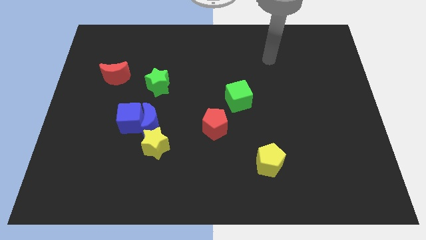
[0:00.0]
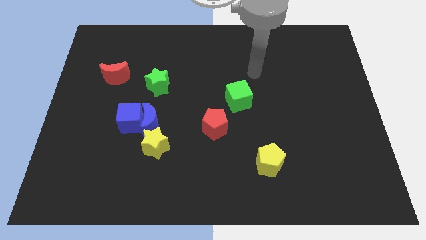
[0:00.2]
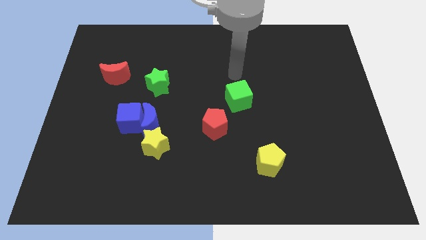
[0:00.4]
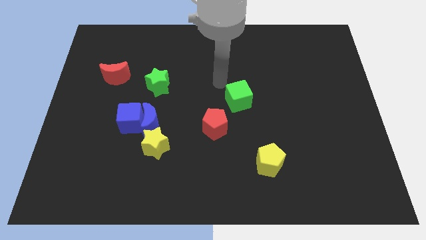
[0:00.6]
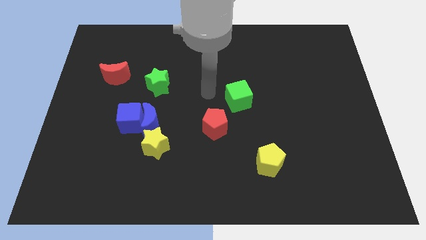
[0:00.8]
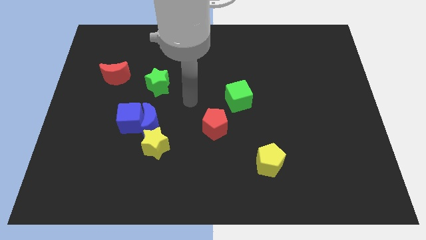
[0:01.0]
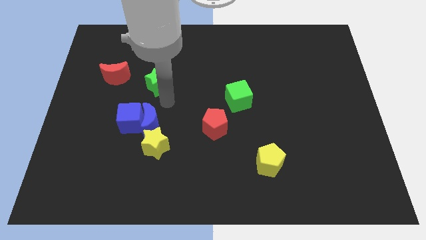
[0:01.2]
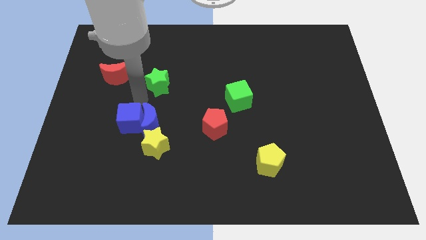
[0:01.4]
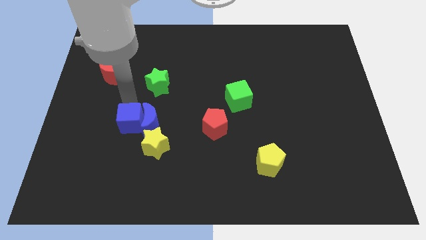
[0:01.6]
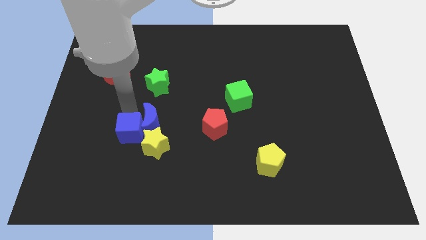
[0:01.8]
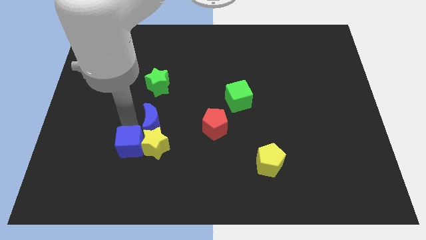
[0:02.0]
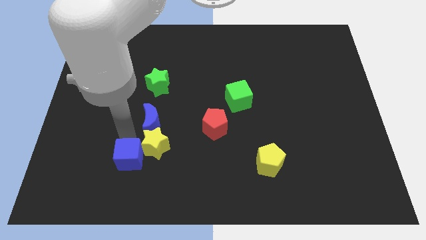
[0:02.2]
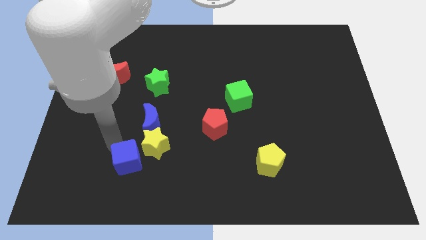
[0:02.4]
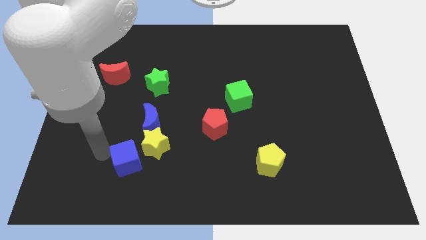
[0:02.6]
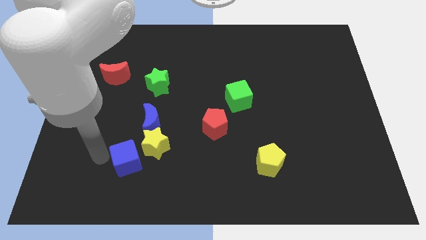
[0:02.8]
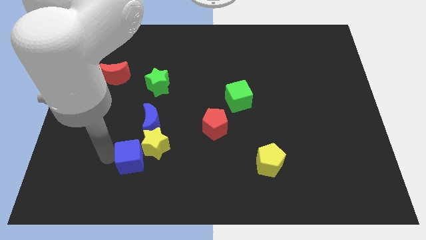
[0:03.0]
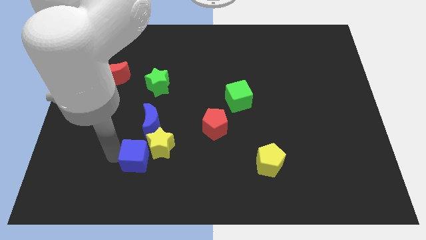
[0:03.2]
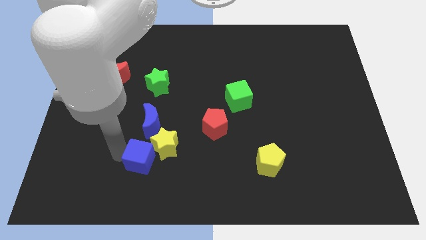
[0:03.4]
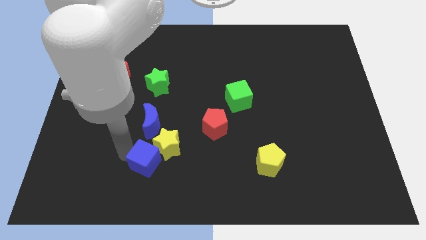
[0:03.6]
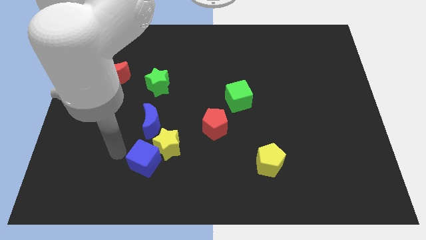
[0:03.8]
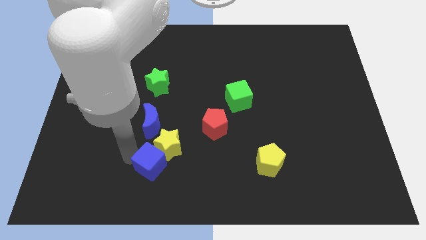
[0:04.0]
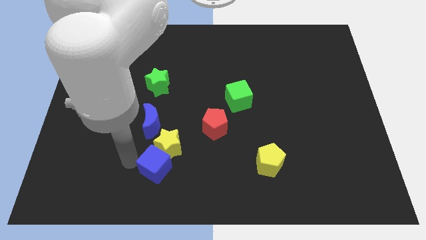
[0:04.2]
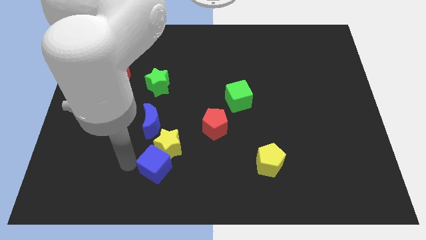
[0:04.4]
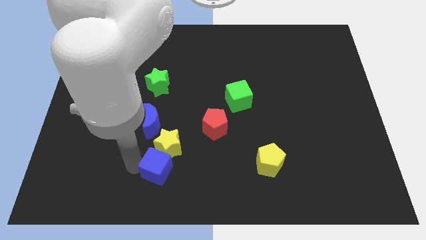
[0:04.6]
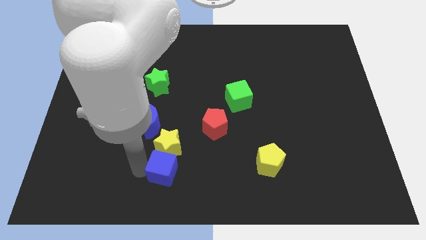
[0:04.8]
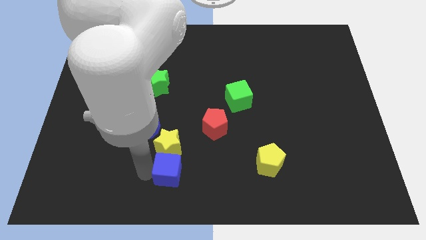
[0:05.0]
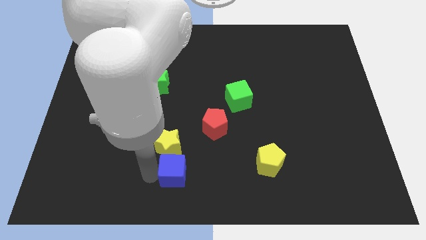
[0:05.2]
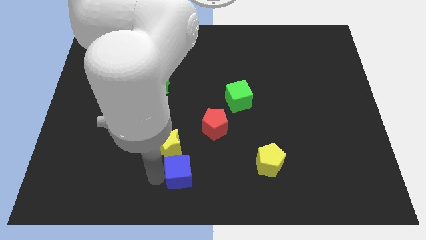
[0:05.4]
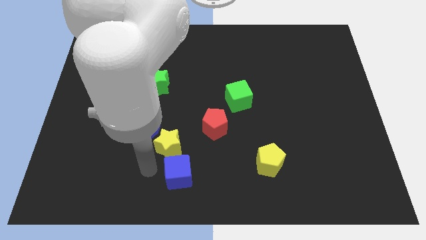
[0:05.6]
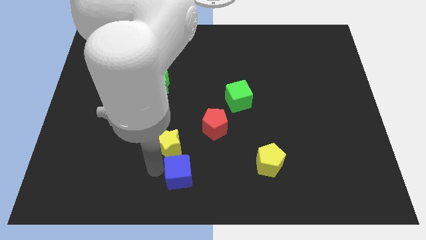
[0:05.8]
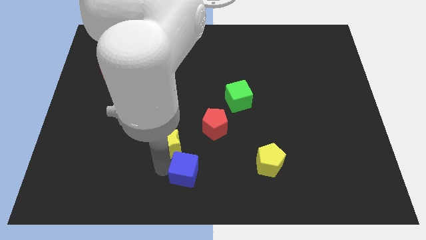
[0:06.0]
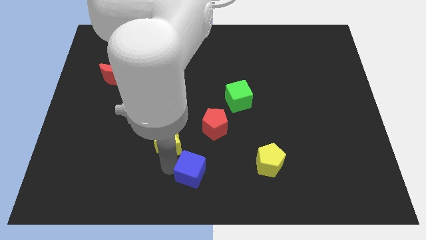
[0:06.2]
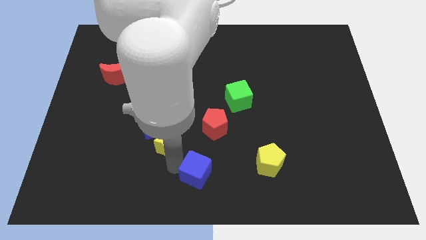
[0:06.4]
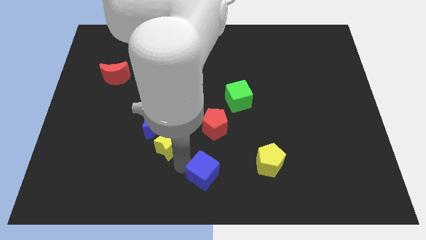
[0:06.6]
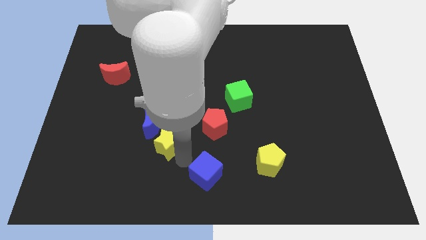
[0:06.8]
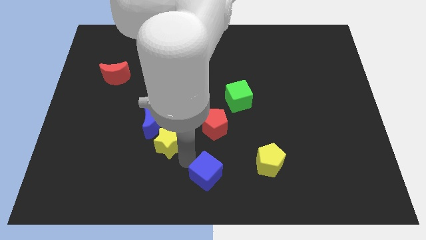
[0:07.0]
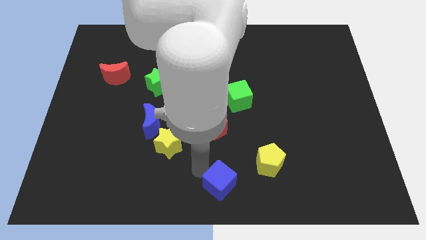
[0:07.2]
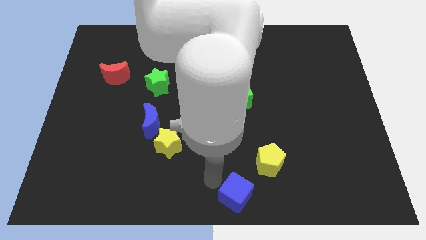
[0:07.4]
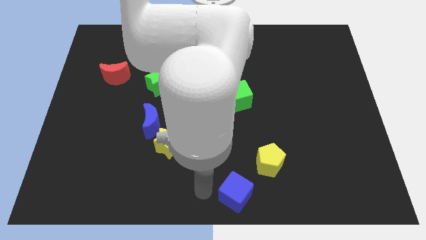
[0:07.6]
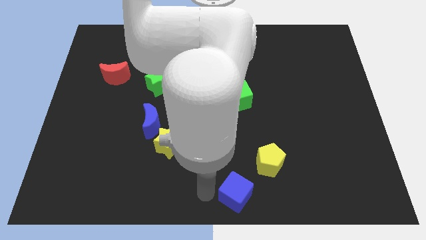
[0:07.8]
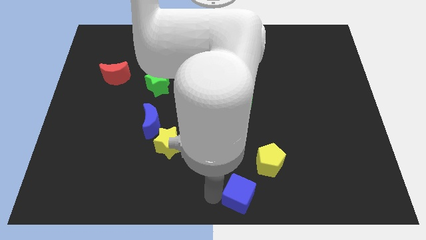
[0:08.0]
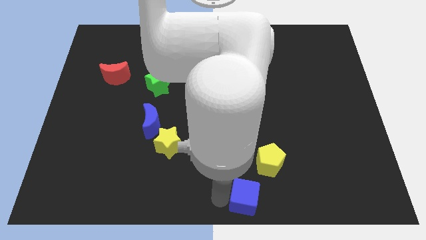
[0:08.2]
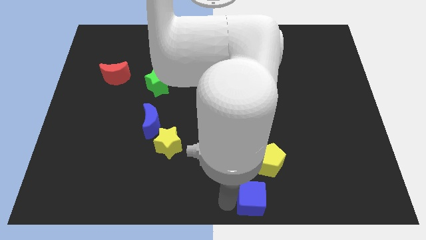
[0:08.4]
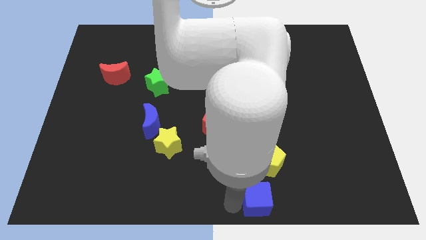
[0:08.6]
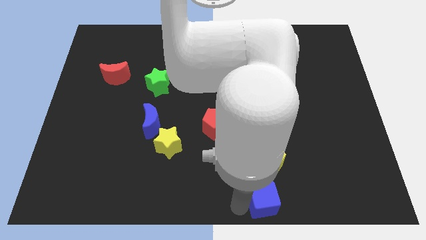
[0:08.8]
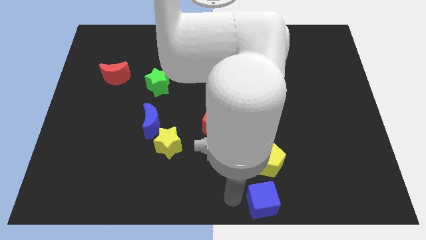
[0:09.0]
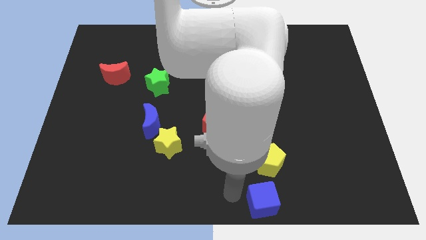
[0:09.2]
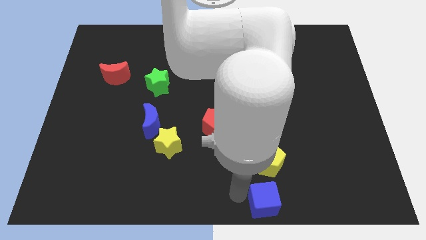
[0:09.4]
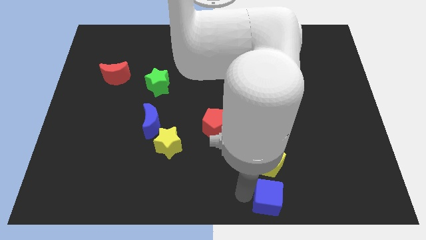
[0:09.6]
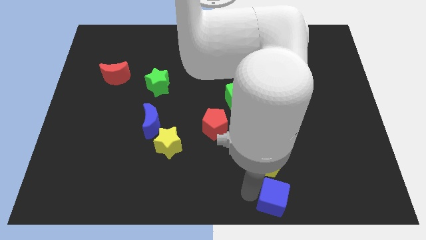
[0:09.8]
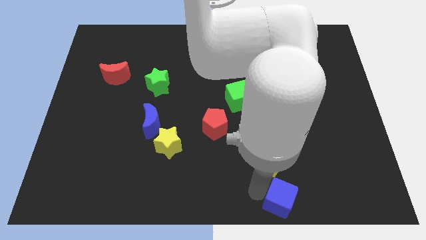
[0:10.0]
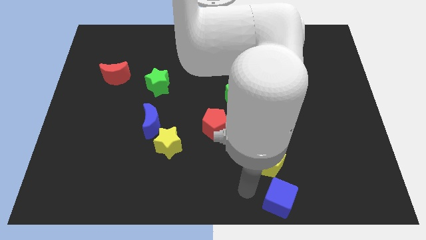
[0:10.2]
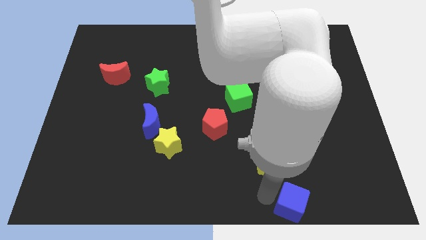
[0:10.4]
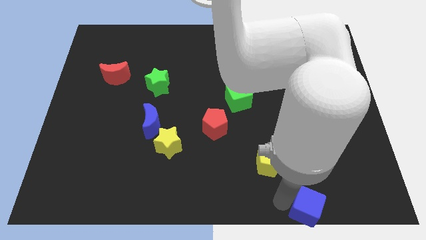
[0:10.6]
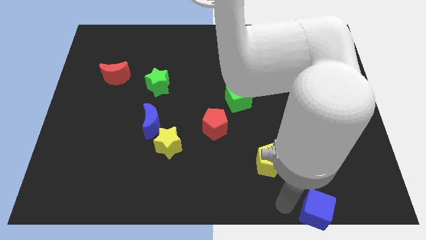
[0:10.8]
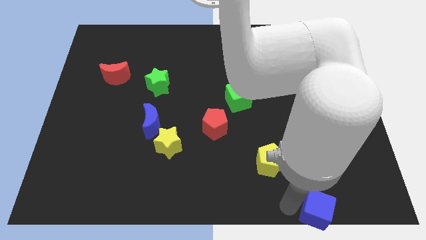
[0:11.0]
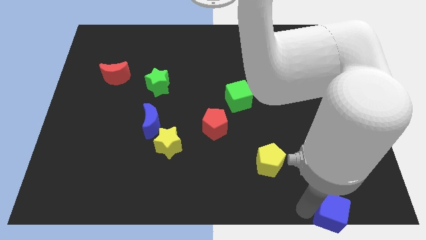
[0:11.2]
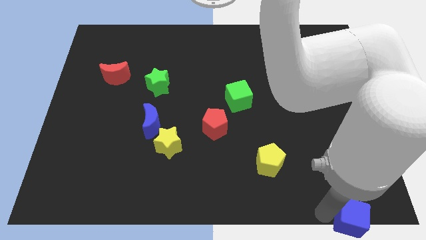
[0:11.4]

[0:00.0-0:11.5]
move the blue cube to the bottom right of the board

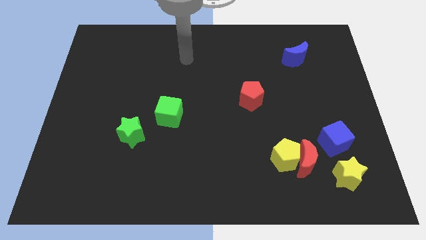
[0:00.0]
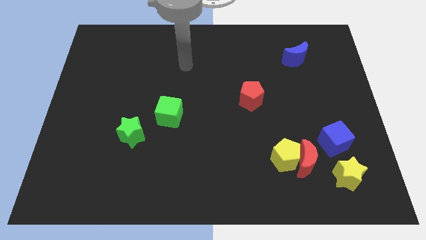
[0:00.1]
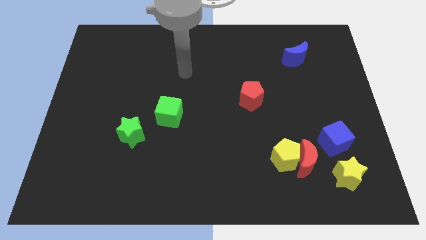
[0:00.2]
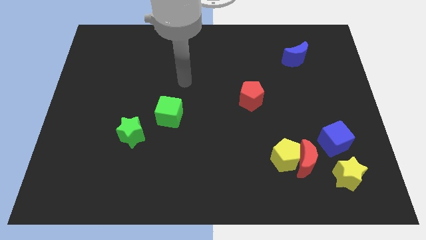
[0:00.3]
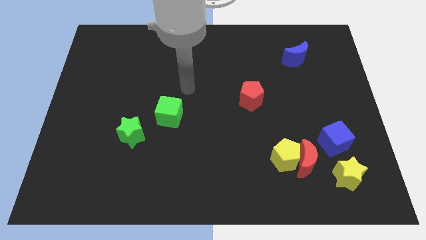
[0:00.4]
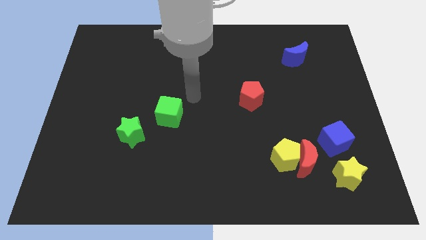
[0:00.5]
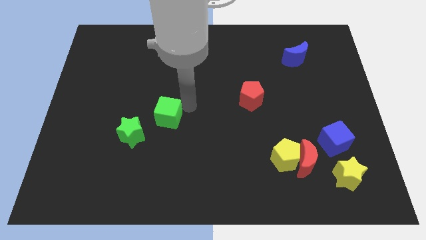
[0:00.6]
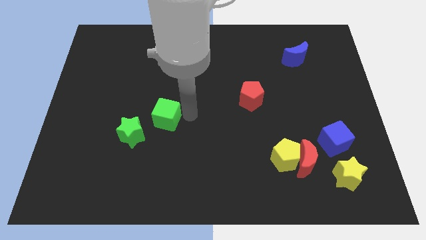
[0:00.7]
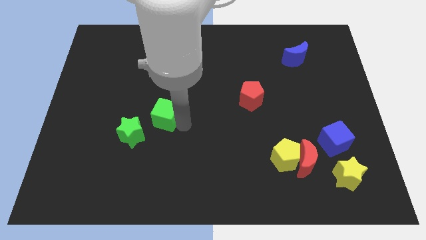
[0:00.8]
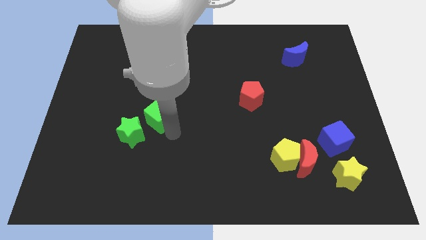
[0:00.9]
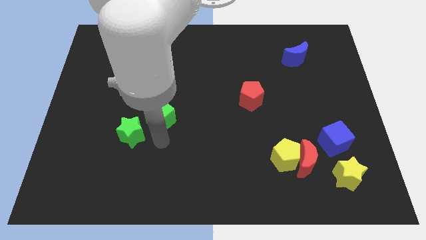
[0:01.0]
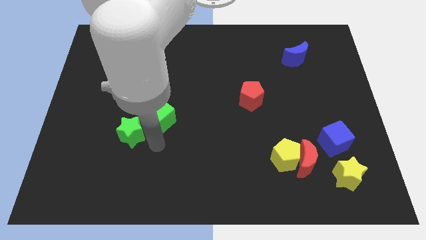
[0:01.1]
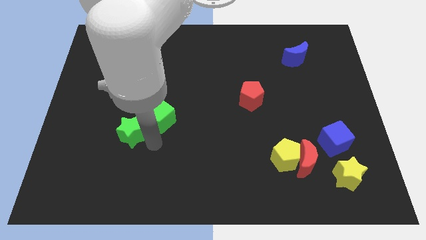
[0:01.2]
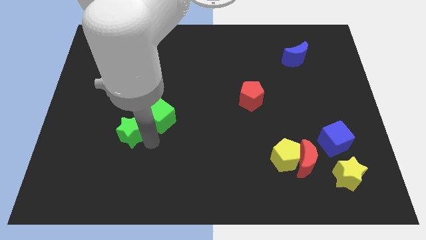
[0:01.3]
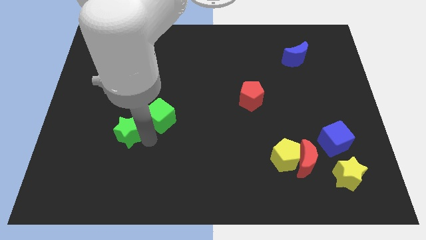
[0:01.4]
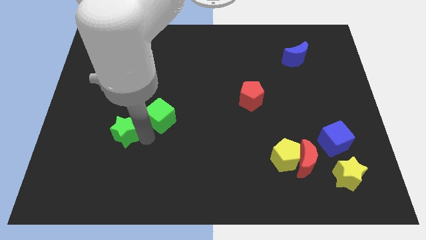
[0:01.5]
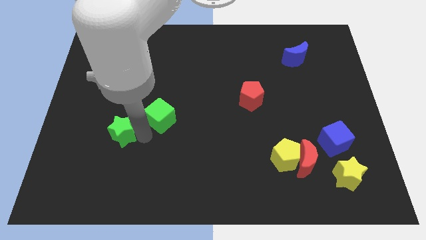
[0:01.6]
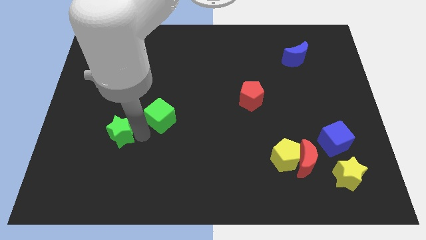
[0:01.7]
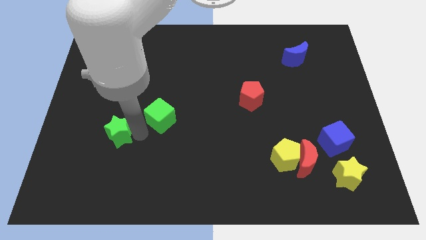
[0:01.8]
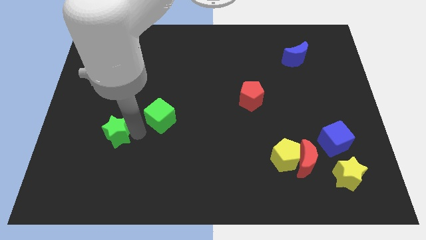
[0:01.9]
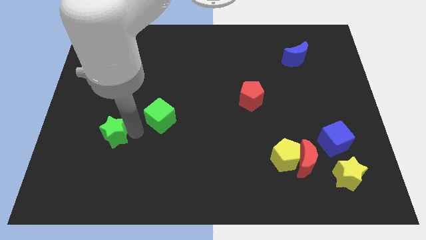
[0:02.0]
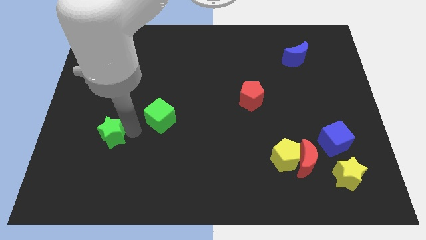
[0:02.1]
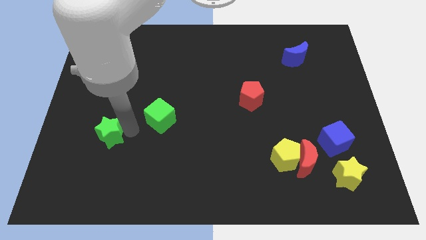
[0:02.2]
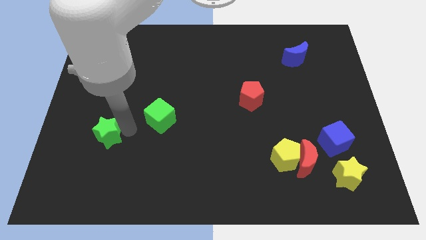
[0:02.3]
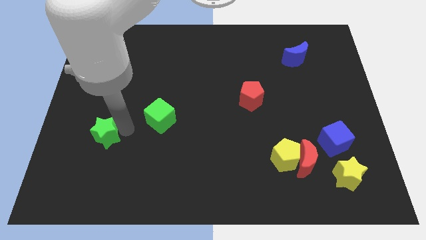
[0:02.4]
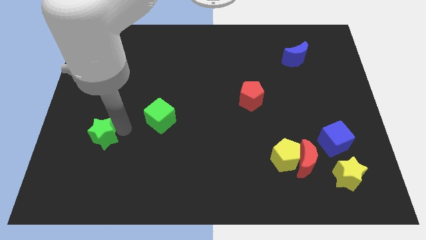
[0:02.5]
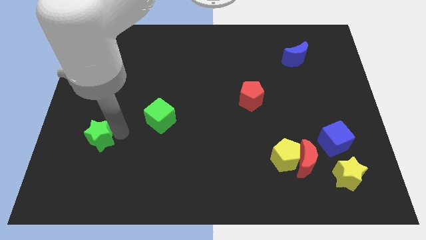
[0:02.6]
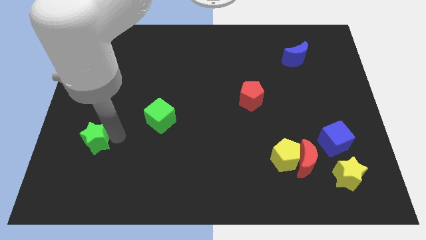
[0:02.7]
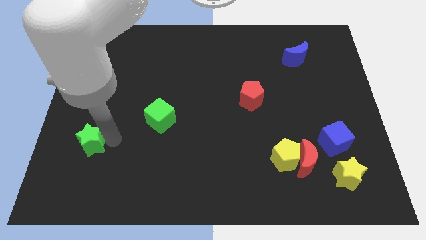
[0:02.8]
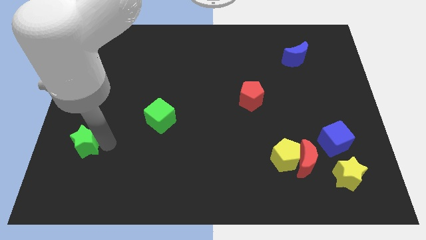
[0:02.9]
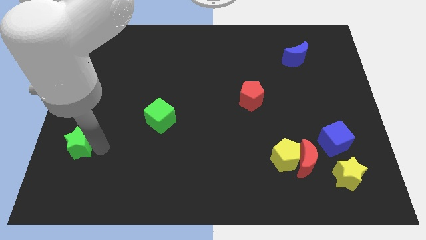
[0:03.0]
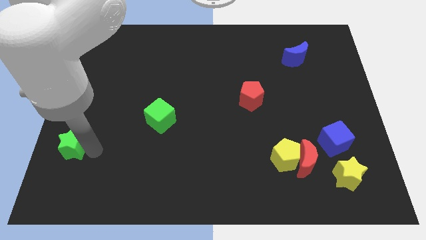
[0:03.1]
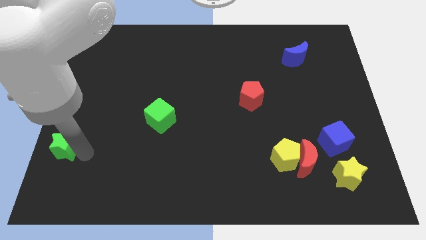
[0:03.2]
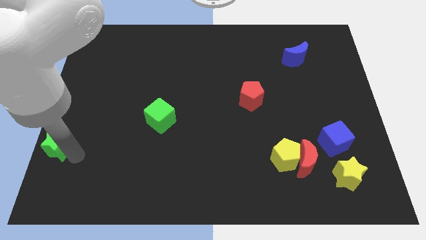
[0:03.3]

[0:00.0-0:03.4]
put the green star to the left side
